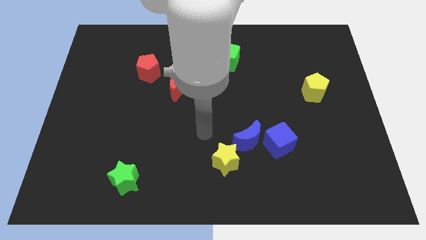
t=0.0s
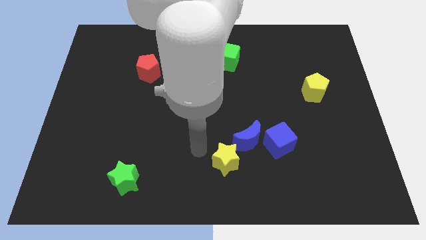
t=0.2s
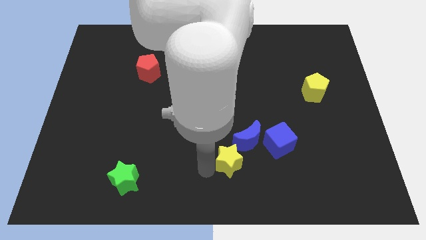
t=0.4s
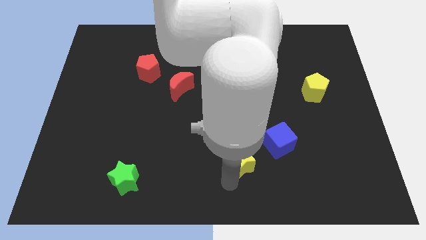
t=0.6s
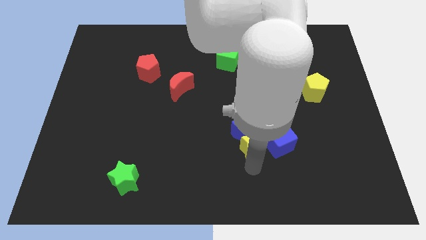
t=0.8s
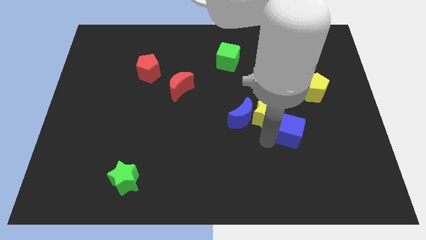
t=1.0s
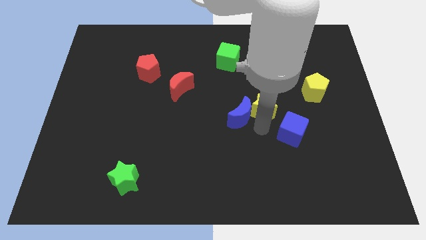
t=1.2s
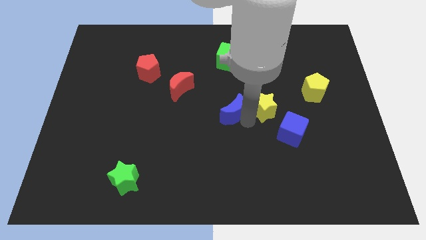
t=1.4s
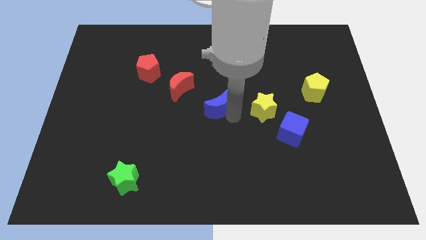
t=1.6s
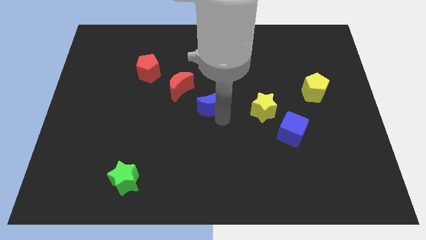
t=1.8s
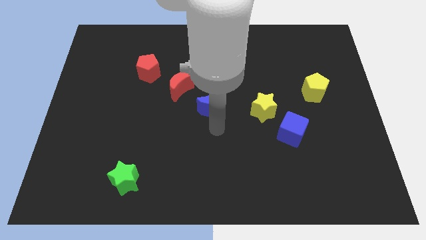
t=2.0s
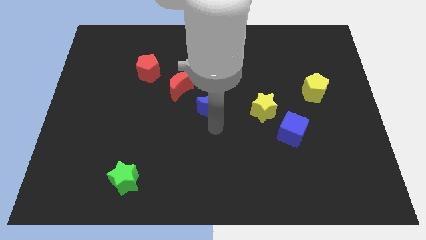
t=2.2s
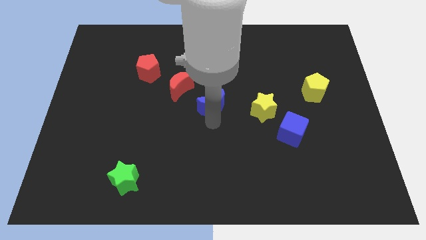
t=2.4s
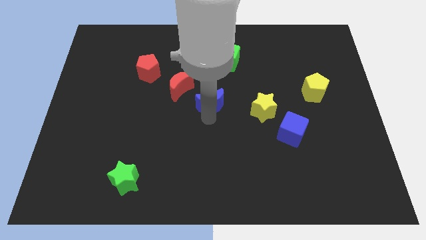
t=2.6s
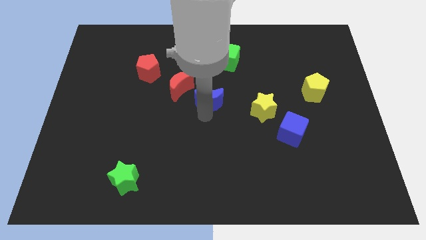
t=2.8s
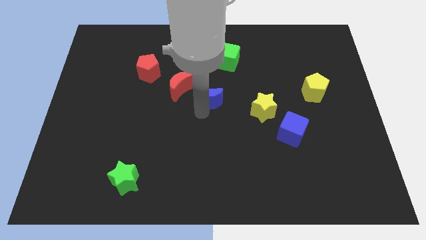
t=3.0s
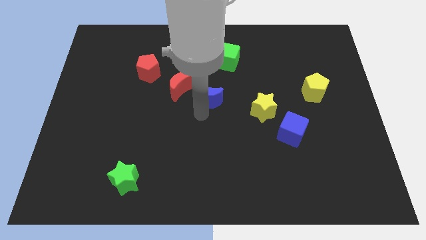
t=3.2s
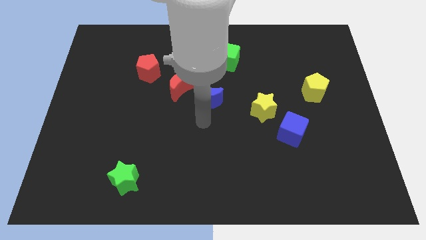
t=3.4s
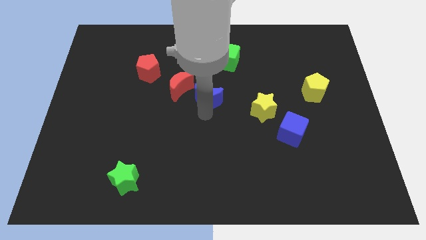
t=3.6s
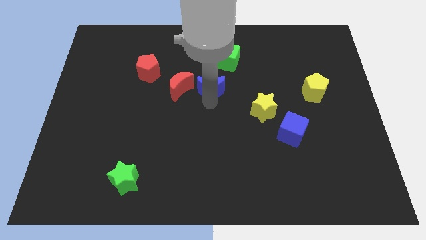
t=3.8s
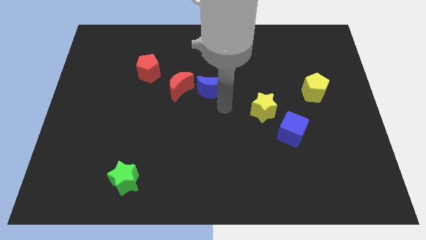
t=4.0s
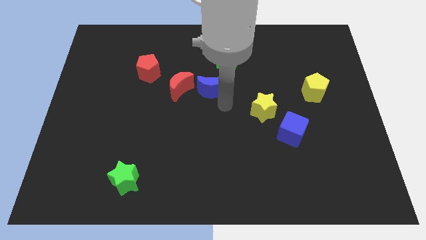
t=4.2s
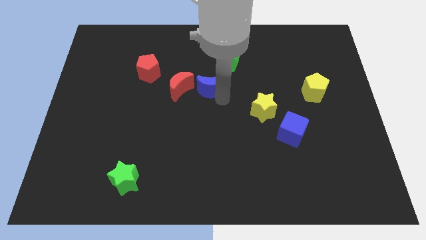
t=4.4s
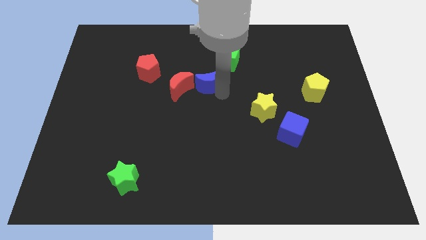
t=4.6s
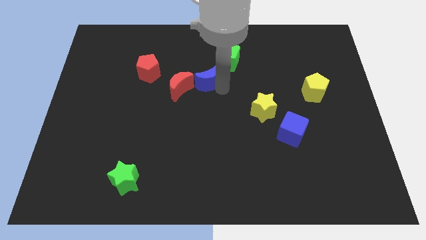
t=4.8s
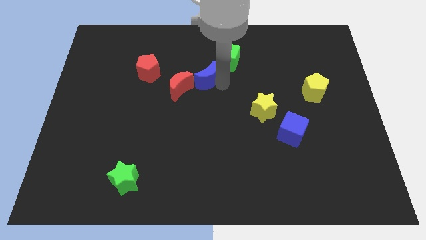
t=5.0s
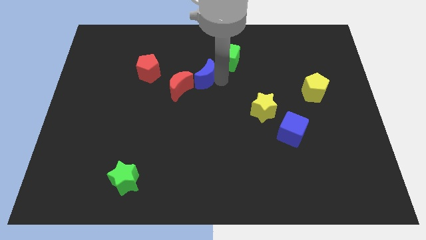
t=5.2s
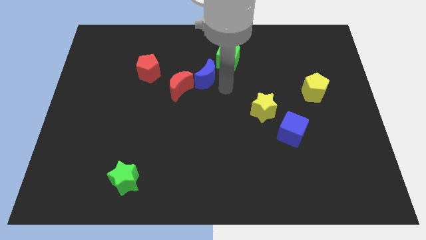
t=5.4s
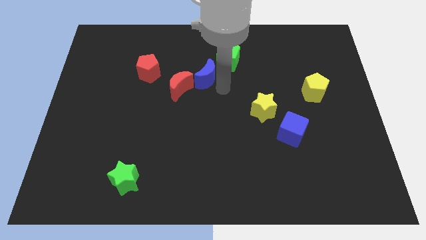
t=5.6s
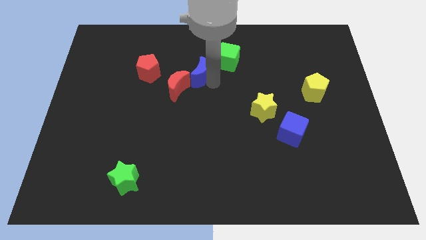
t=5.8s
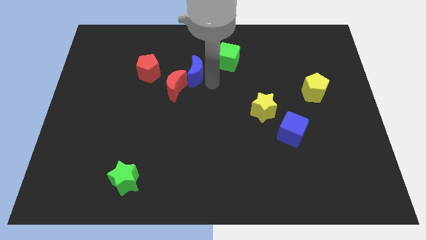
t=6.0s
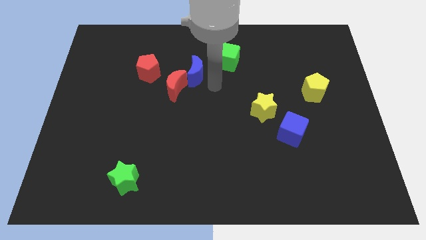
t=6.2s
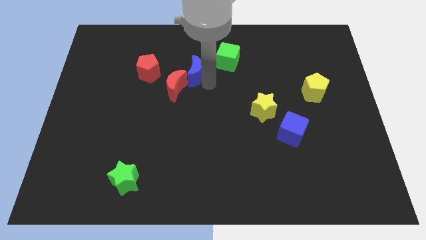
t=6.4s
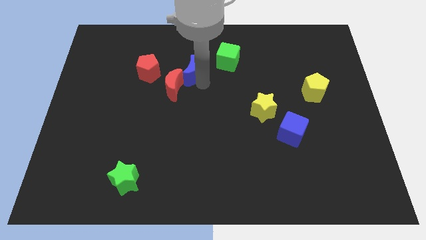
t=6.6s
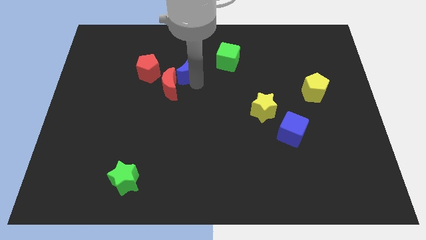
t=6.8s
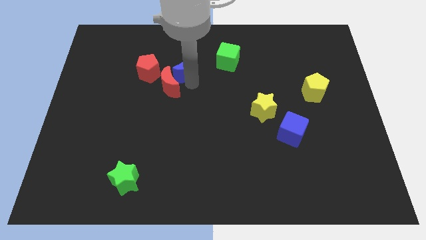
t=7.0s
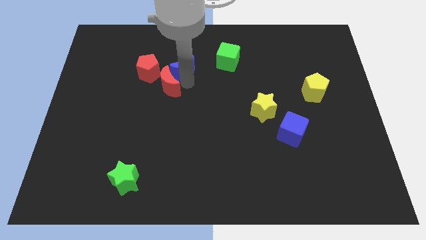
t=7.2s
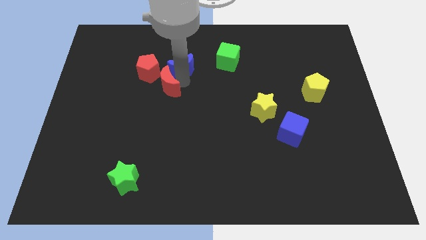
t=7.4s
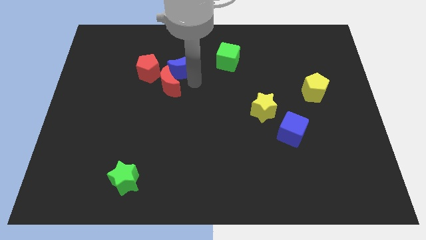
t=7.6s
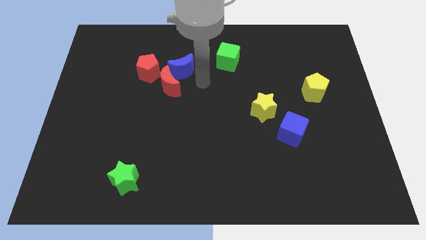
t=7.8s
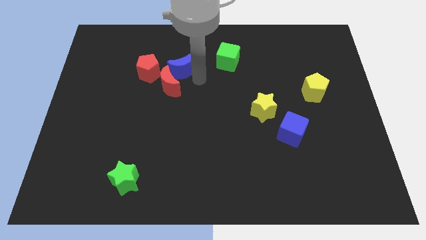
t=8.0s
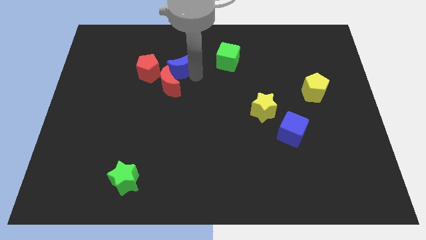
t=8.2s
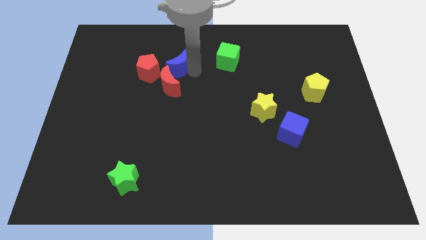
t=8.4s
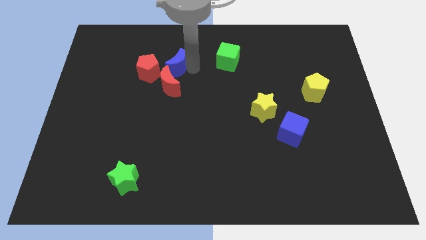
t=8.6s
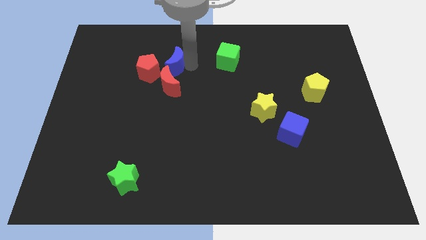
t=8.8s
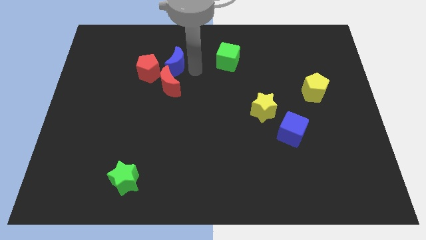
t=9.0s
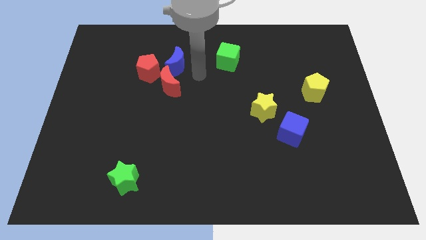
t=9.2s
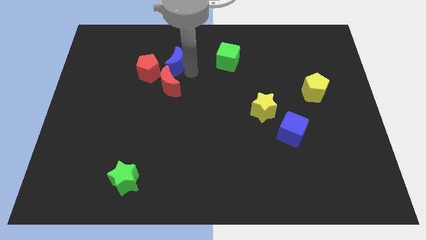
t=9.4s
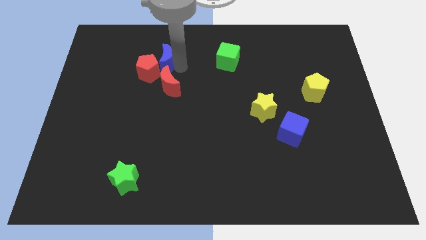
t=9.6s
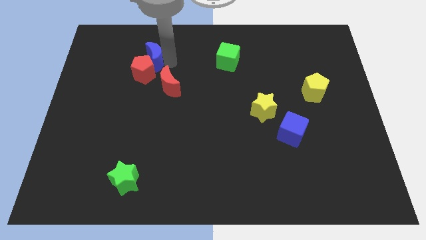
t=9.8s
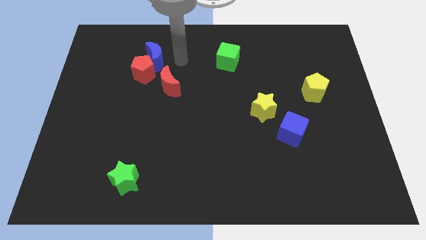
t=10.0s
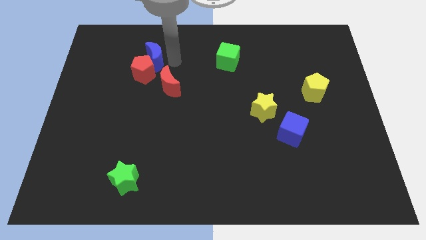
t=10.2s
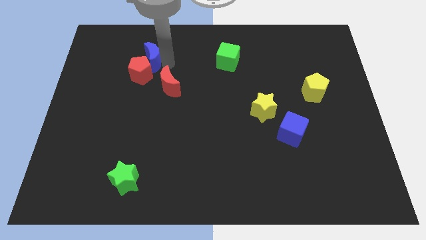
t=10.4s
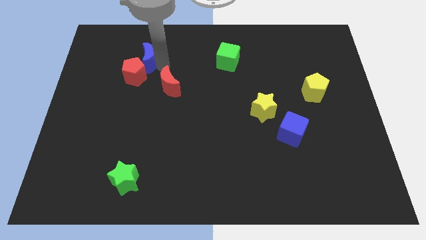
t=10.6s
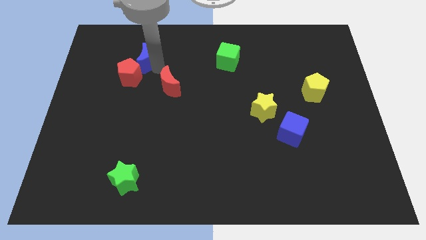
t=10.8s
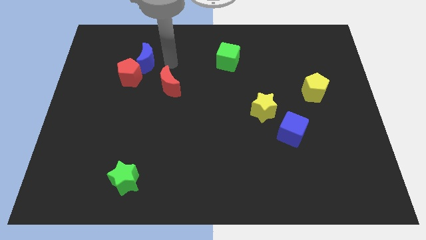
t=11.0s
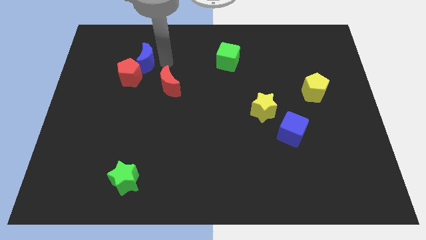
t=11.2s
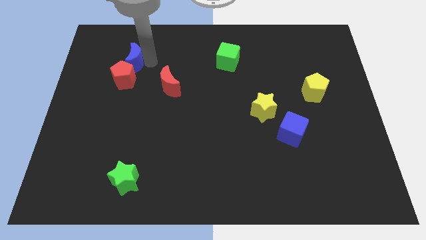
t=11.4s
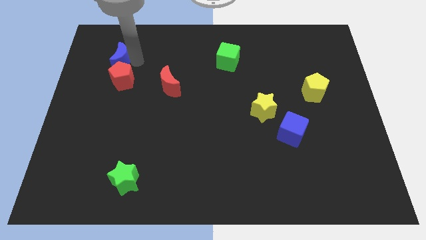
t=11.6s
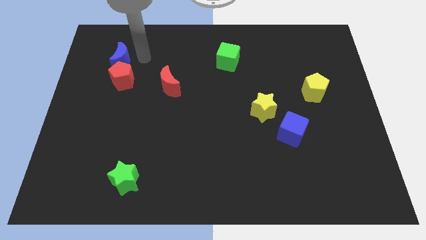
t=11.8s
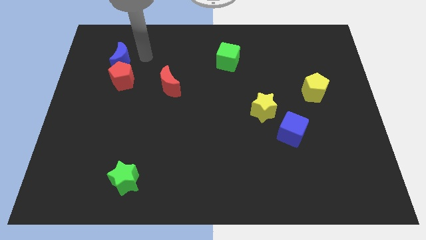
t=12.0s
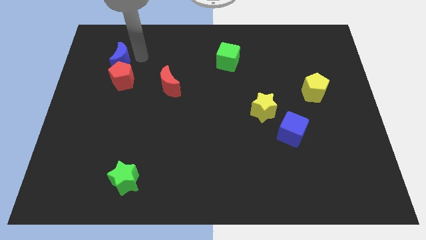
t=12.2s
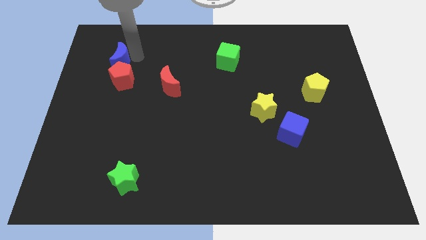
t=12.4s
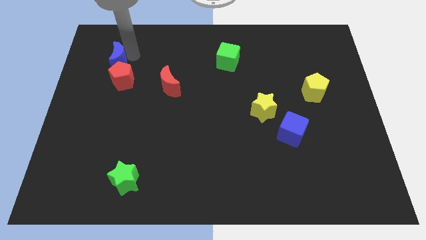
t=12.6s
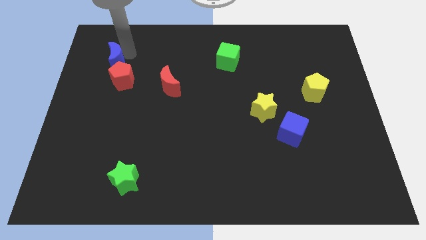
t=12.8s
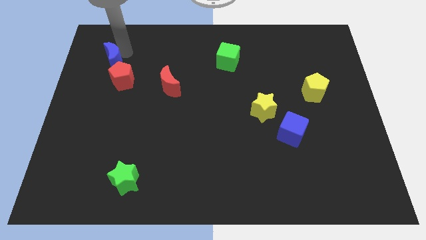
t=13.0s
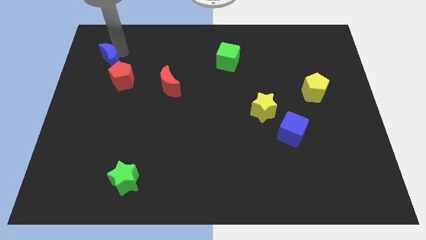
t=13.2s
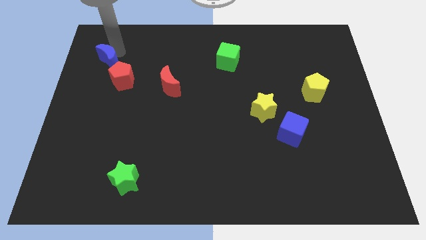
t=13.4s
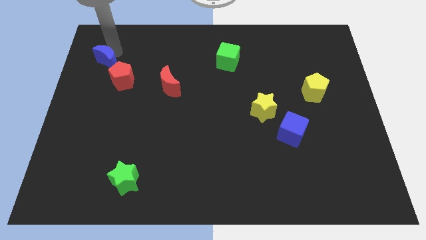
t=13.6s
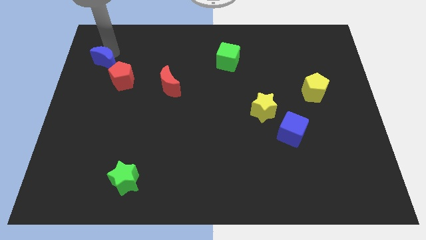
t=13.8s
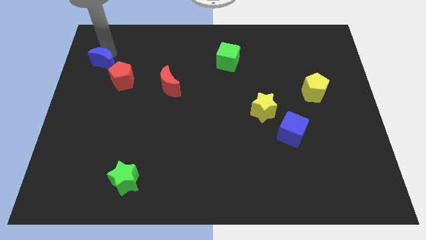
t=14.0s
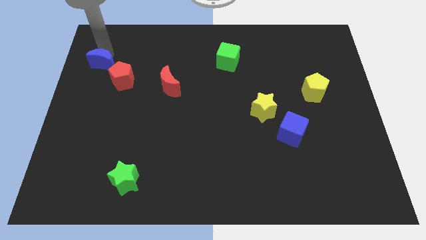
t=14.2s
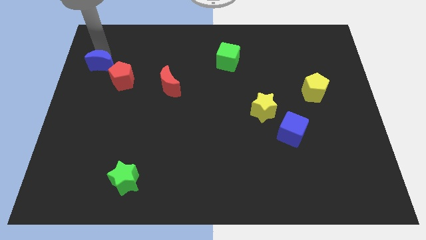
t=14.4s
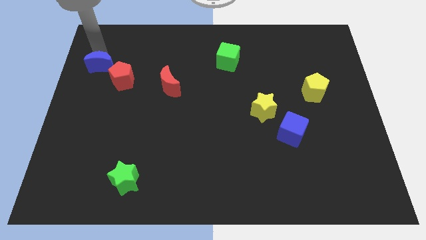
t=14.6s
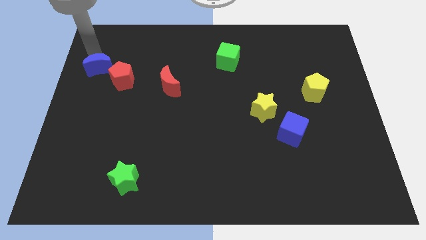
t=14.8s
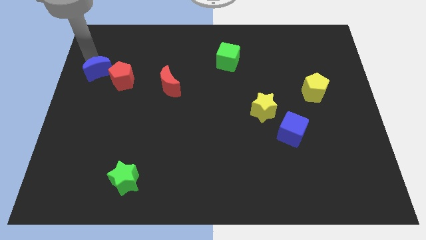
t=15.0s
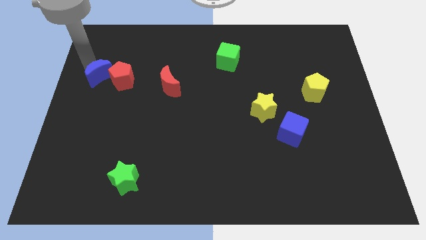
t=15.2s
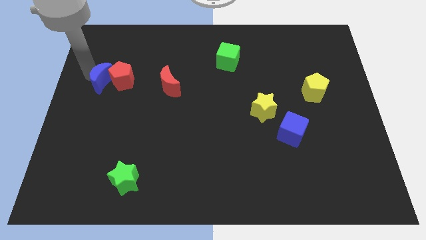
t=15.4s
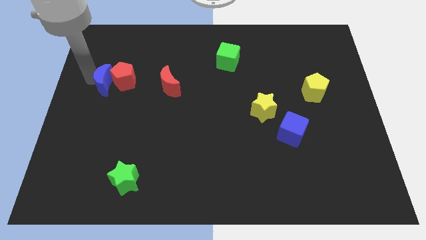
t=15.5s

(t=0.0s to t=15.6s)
put the blue moon diagonally up and to the left of the red pentagon
